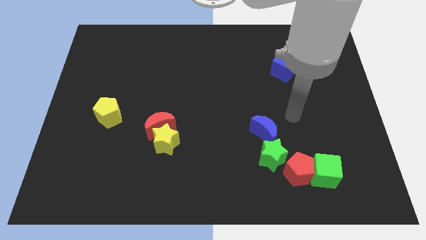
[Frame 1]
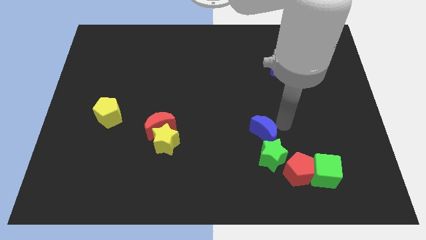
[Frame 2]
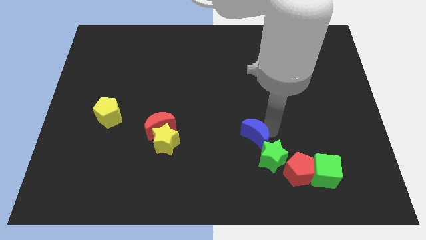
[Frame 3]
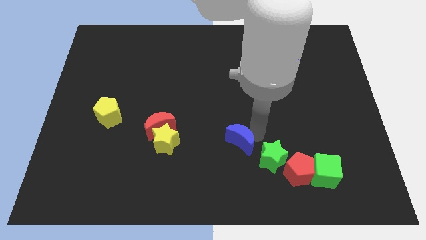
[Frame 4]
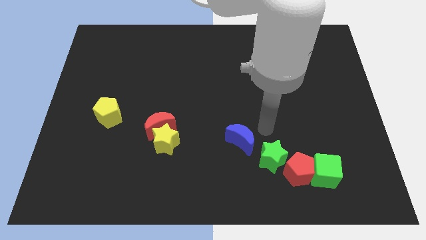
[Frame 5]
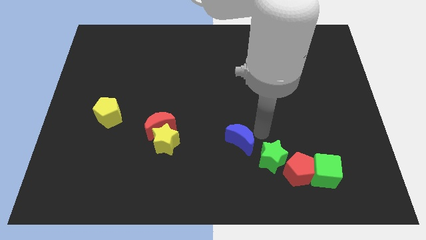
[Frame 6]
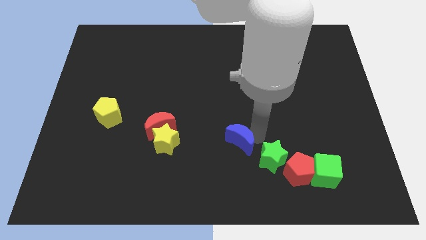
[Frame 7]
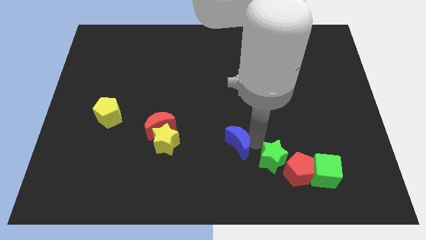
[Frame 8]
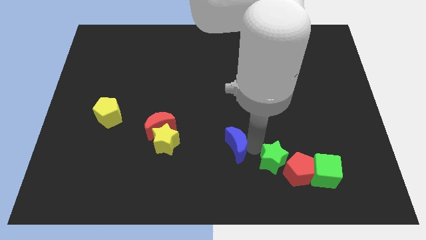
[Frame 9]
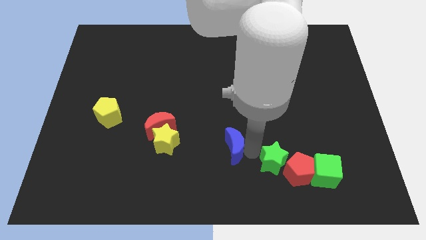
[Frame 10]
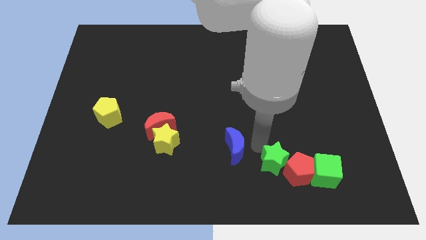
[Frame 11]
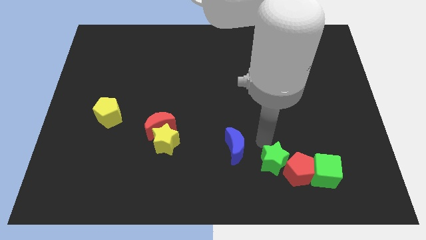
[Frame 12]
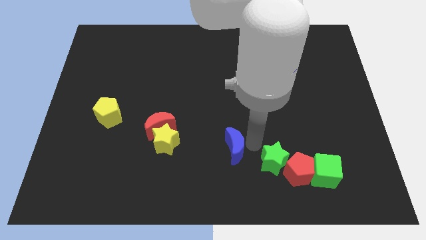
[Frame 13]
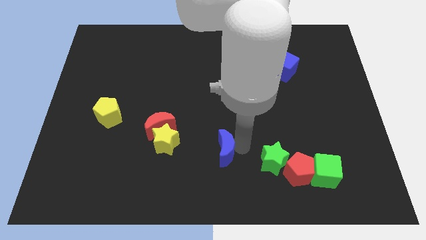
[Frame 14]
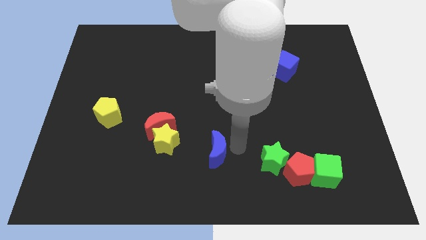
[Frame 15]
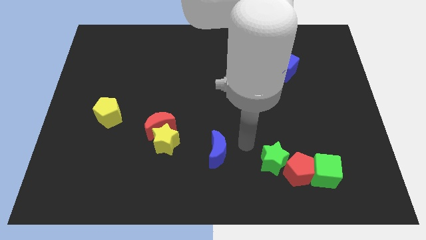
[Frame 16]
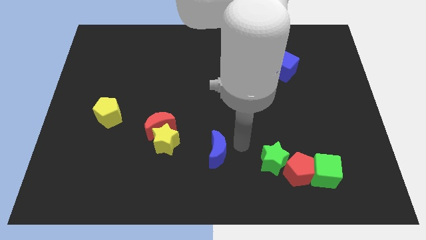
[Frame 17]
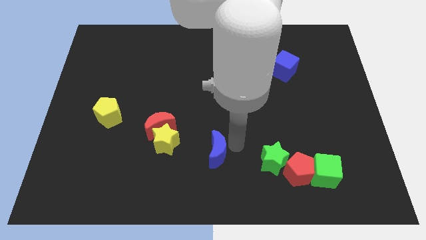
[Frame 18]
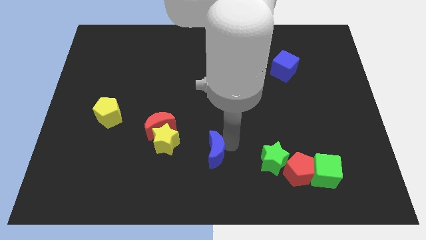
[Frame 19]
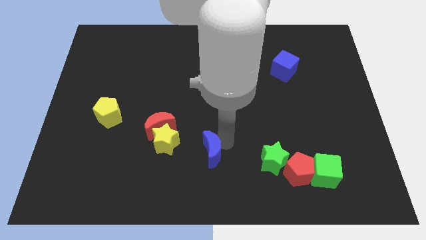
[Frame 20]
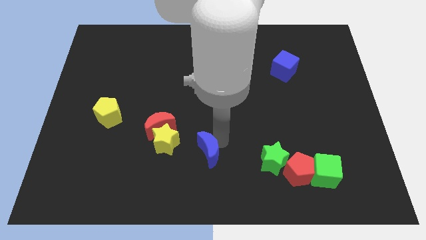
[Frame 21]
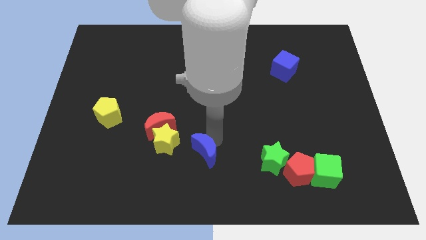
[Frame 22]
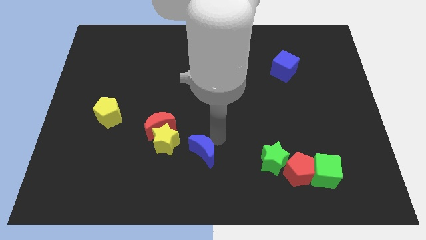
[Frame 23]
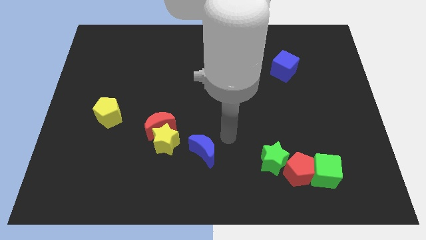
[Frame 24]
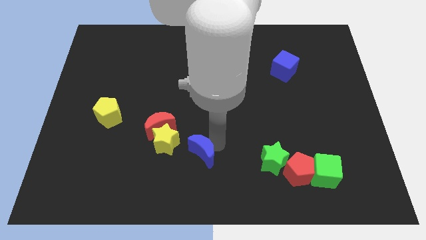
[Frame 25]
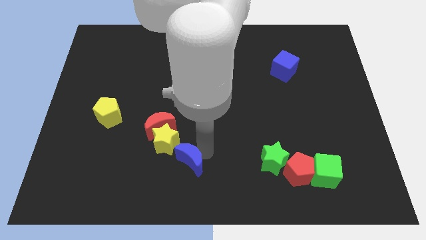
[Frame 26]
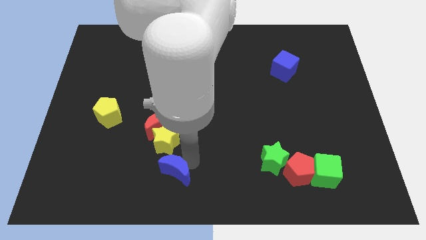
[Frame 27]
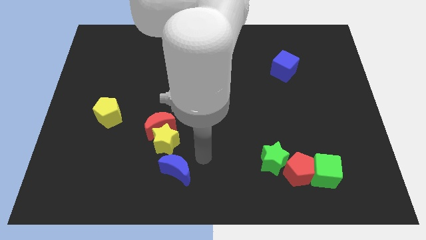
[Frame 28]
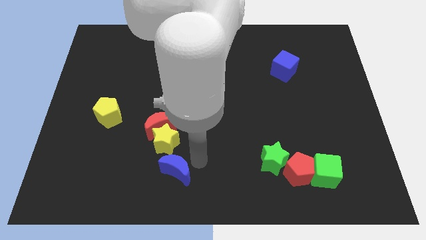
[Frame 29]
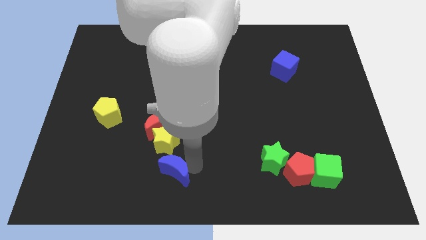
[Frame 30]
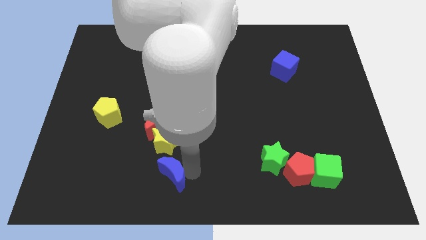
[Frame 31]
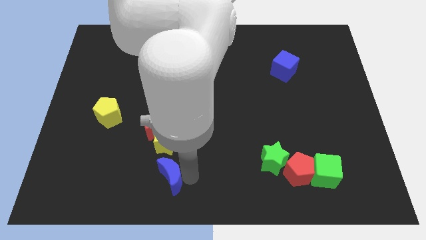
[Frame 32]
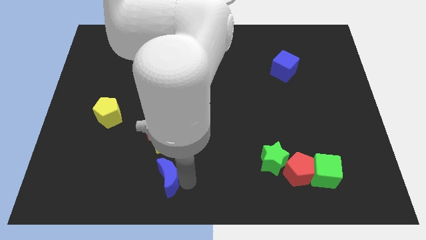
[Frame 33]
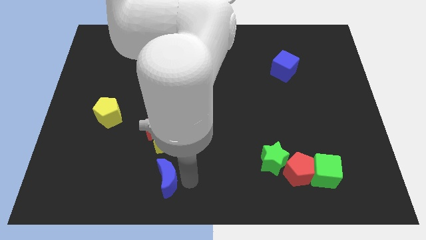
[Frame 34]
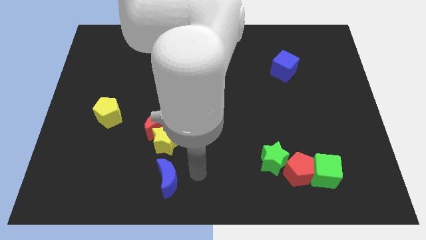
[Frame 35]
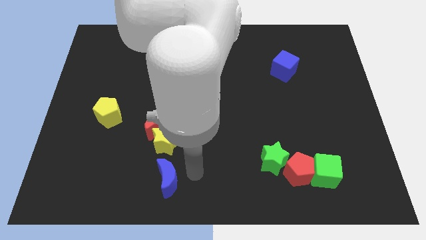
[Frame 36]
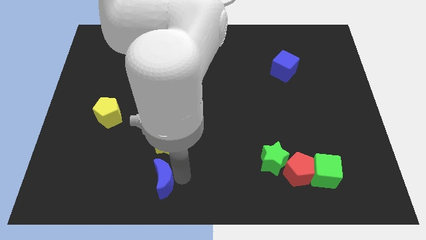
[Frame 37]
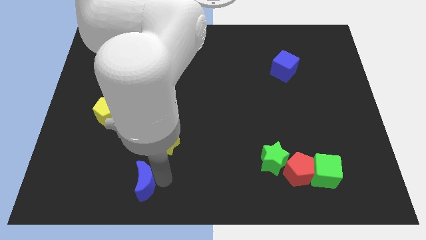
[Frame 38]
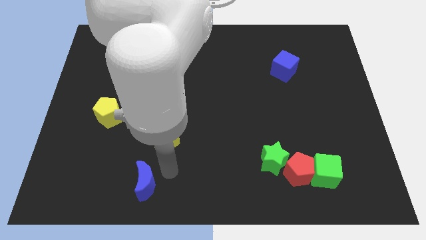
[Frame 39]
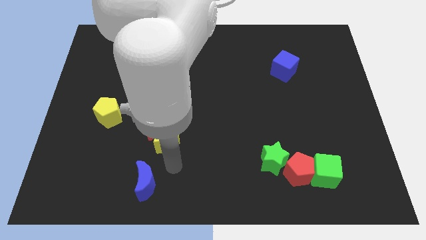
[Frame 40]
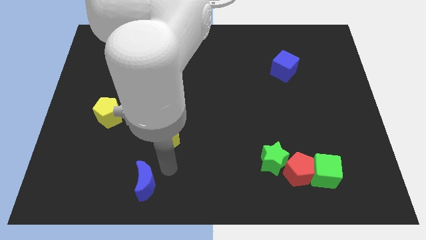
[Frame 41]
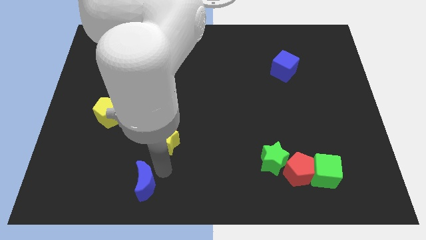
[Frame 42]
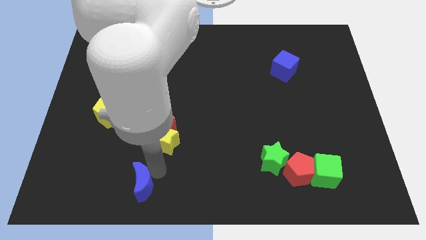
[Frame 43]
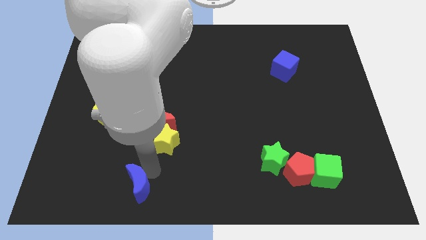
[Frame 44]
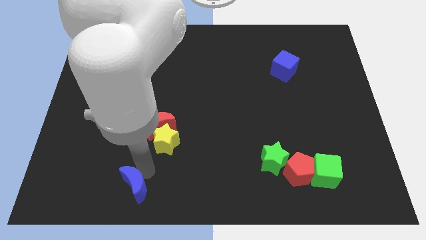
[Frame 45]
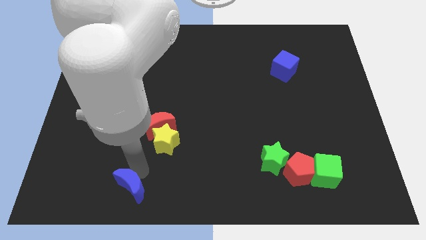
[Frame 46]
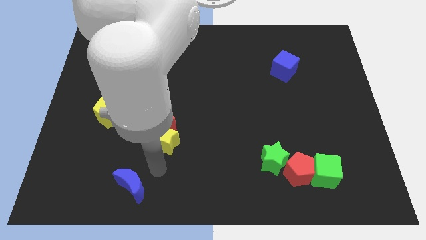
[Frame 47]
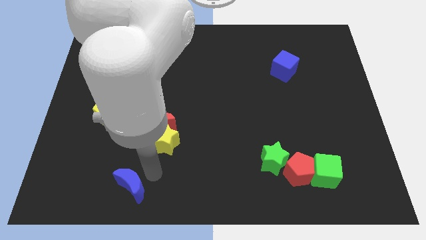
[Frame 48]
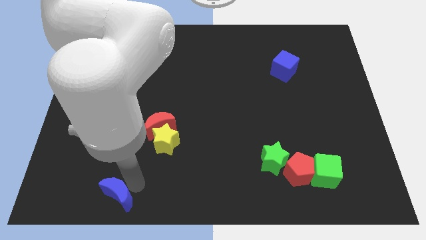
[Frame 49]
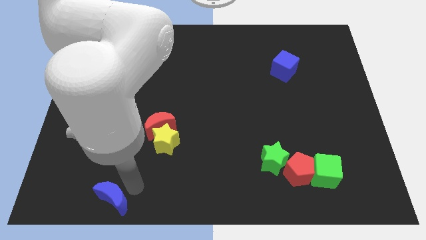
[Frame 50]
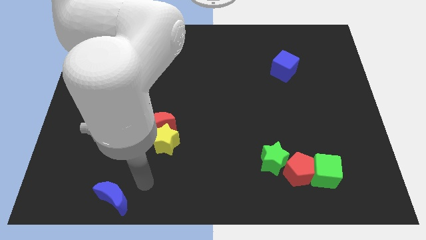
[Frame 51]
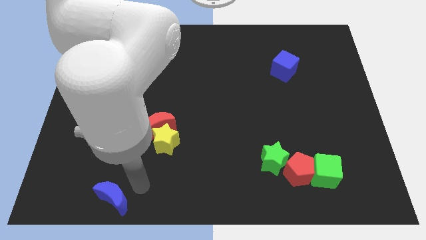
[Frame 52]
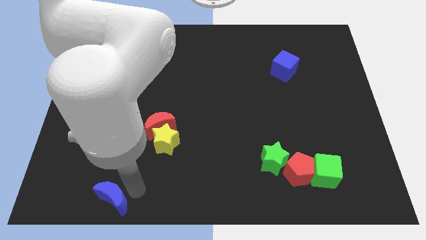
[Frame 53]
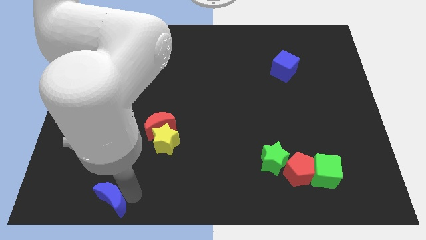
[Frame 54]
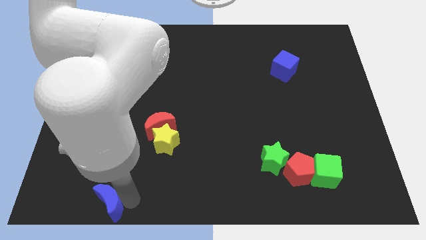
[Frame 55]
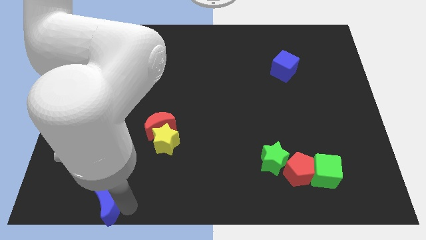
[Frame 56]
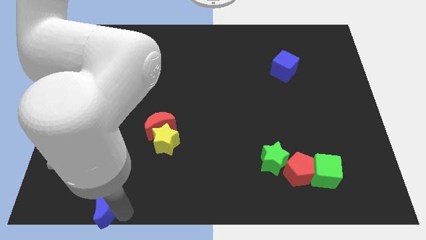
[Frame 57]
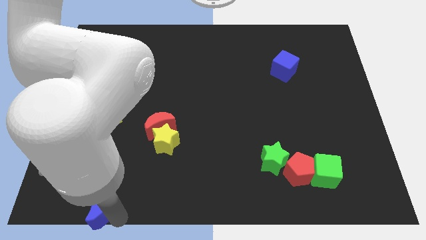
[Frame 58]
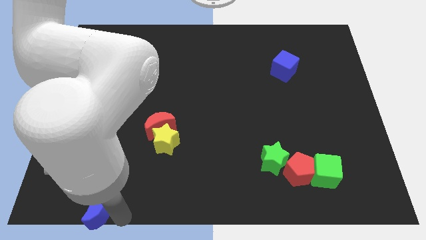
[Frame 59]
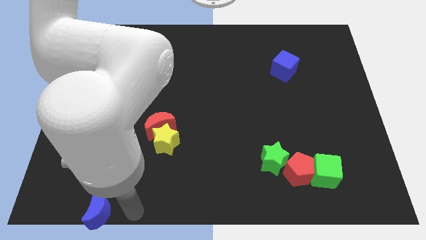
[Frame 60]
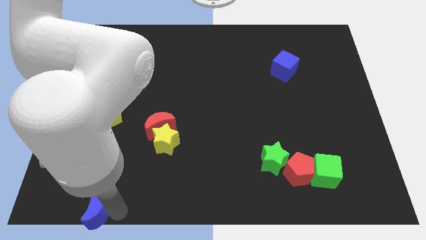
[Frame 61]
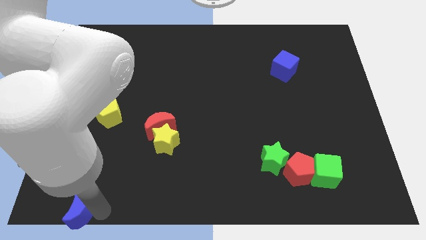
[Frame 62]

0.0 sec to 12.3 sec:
put the blue moon to the bottom left
